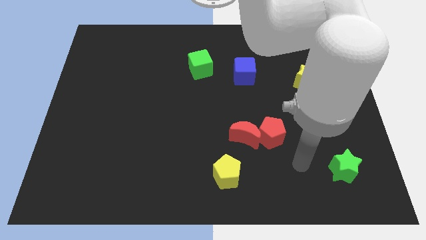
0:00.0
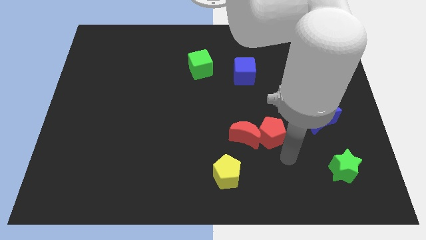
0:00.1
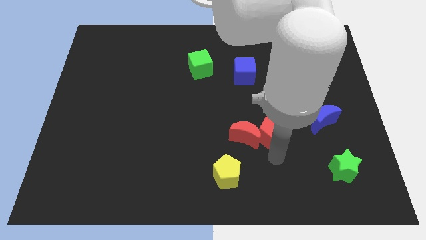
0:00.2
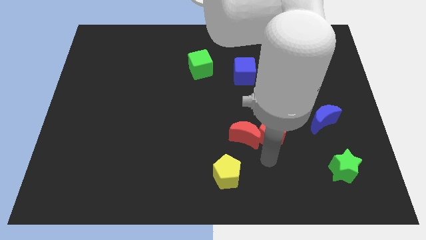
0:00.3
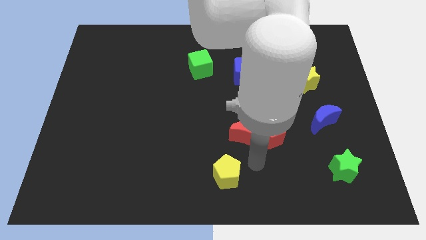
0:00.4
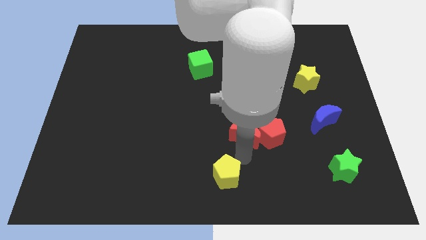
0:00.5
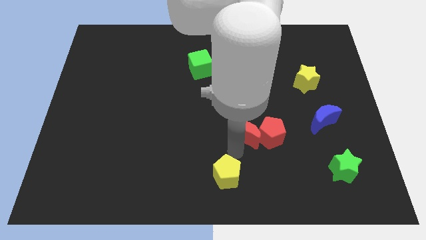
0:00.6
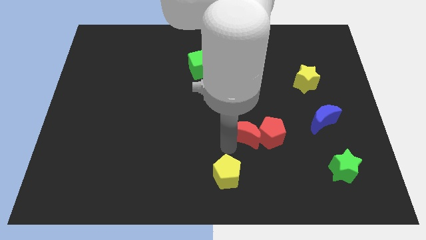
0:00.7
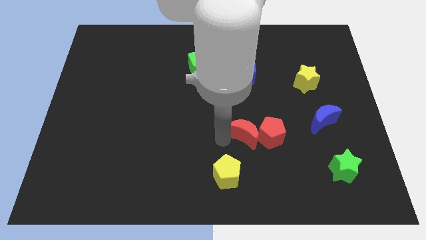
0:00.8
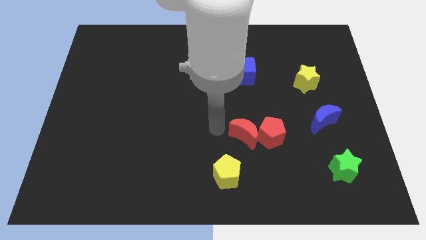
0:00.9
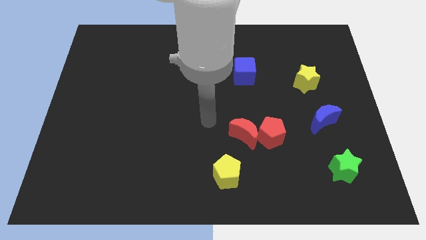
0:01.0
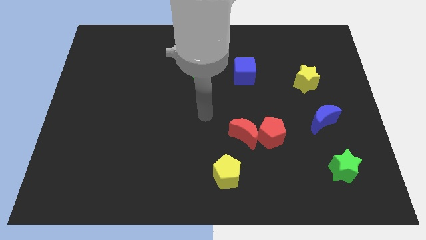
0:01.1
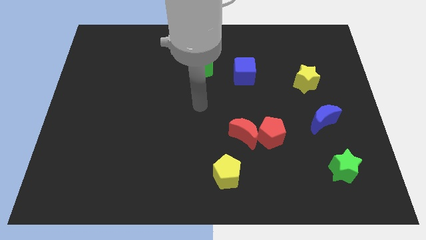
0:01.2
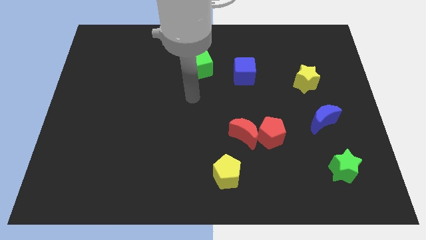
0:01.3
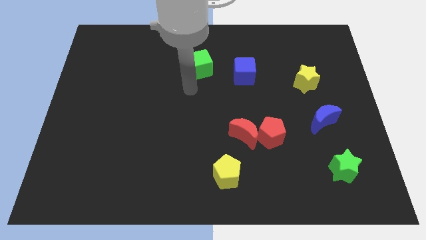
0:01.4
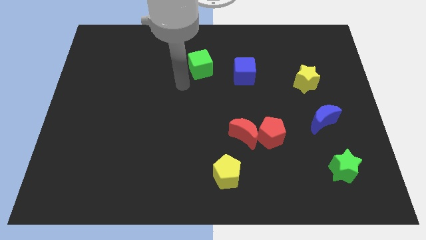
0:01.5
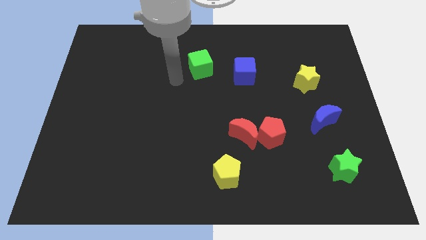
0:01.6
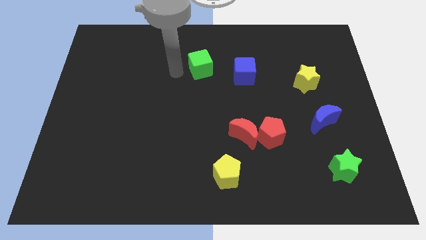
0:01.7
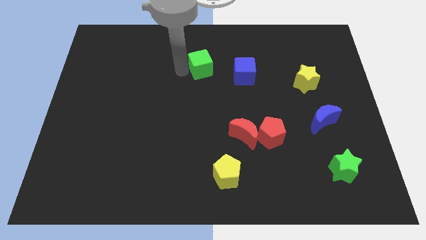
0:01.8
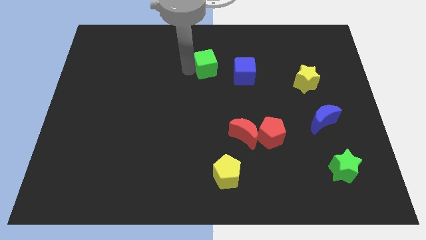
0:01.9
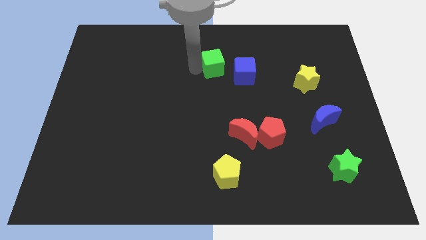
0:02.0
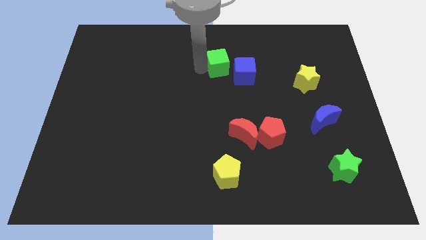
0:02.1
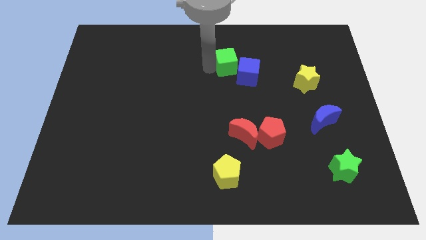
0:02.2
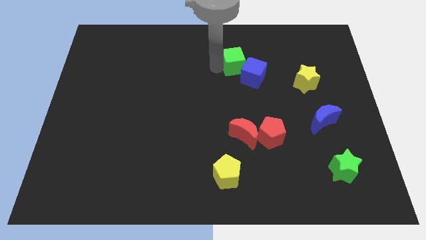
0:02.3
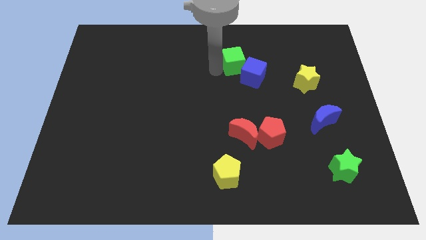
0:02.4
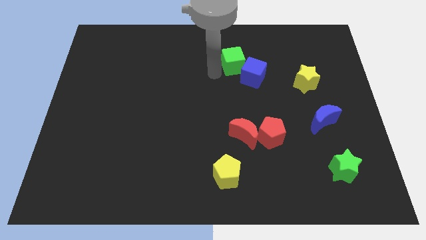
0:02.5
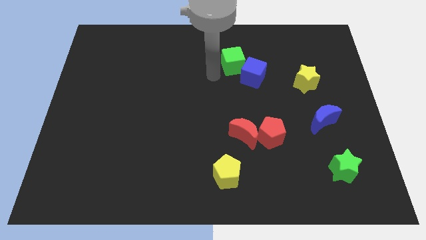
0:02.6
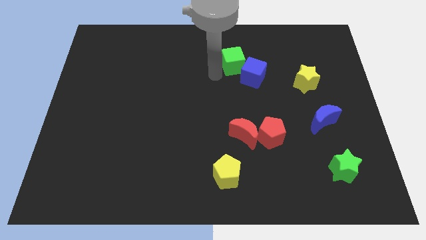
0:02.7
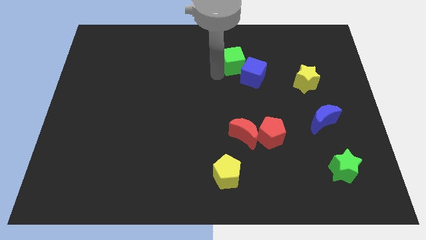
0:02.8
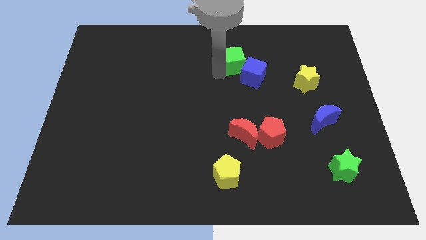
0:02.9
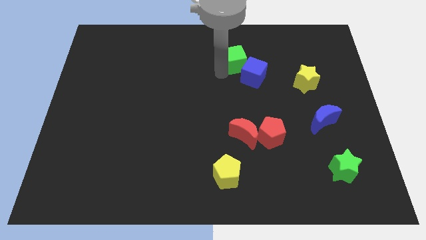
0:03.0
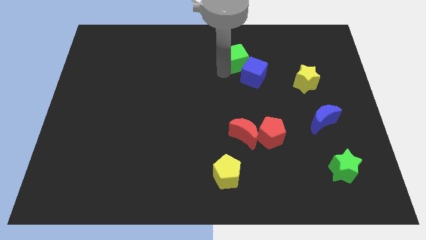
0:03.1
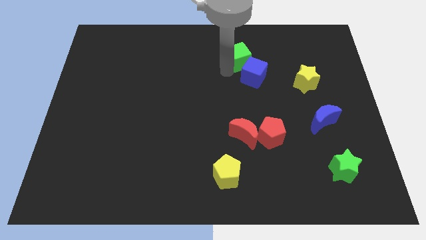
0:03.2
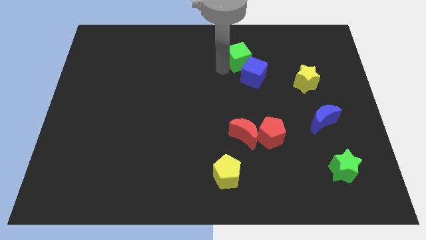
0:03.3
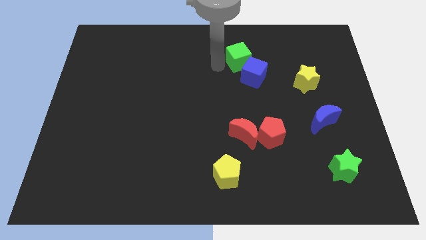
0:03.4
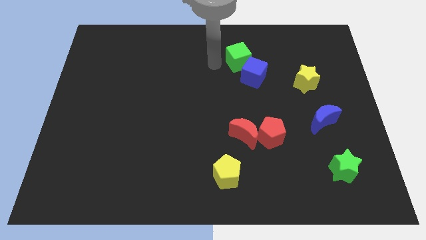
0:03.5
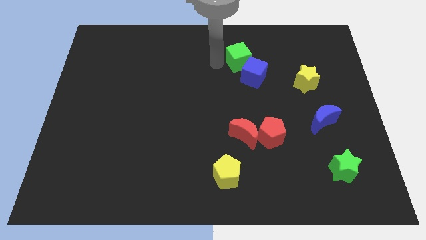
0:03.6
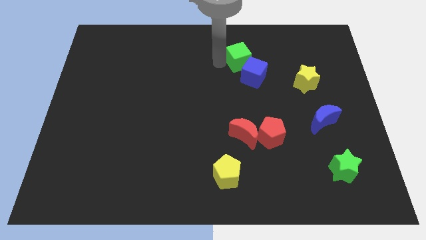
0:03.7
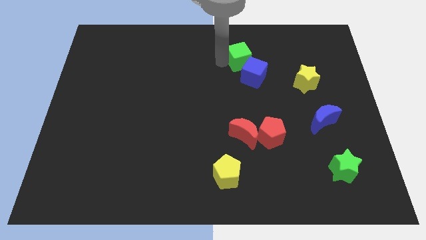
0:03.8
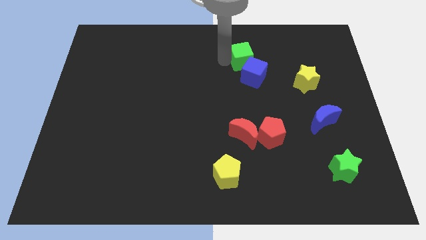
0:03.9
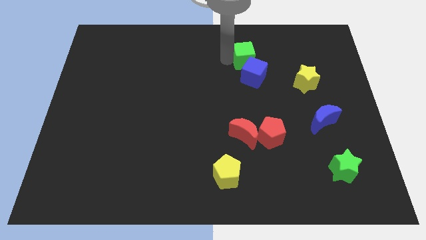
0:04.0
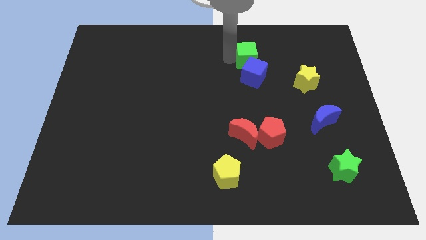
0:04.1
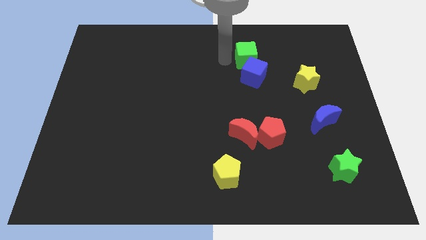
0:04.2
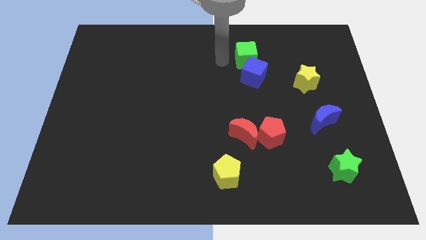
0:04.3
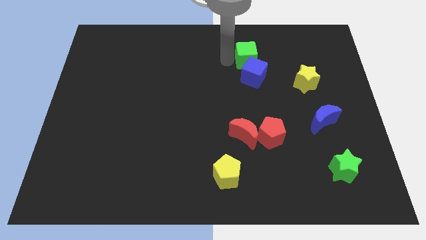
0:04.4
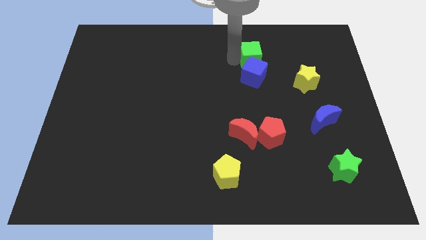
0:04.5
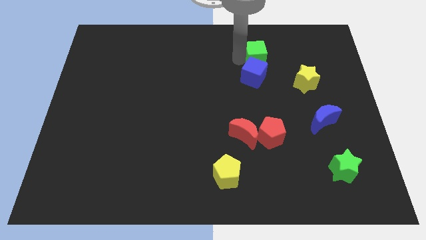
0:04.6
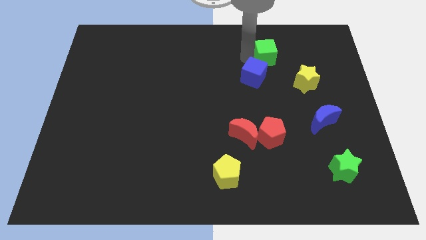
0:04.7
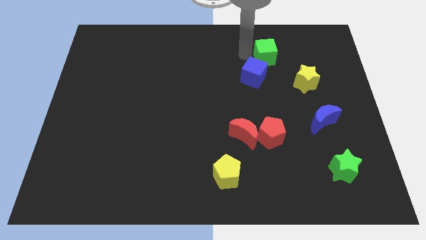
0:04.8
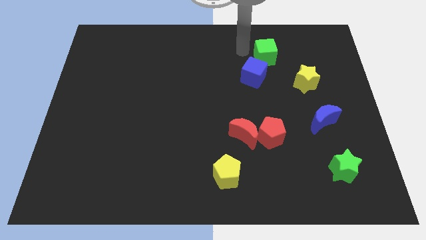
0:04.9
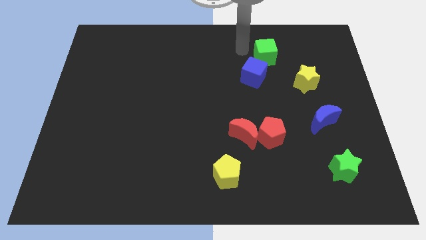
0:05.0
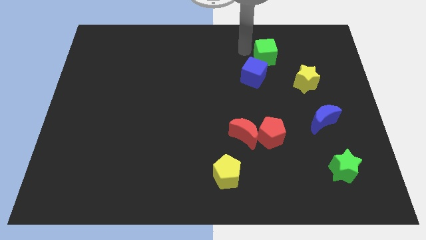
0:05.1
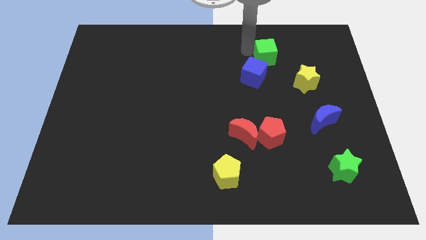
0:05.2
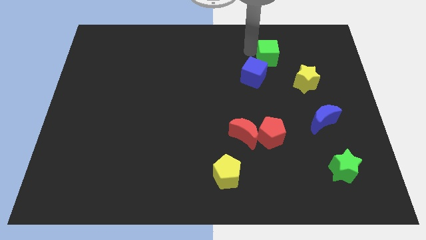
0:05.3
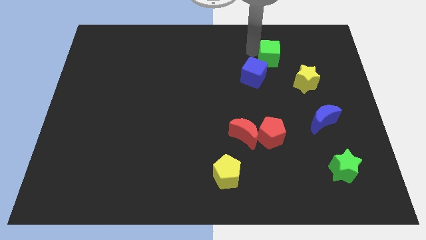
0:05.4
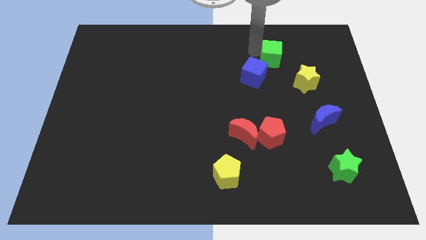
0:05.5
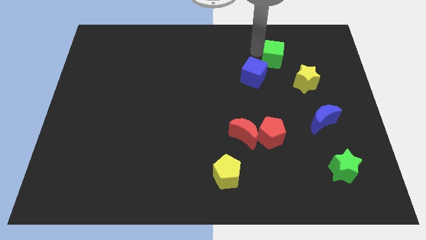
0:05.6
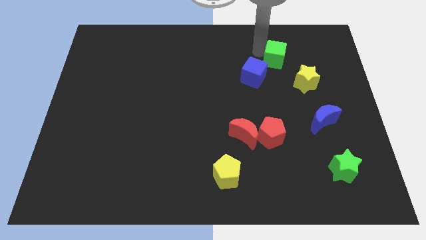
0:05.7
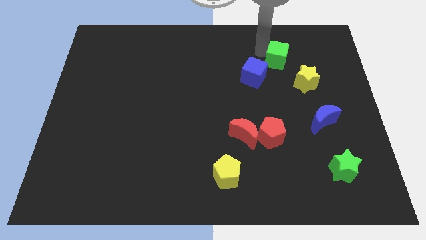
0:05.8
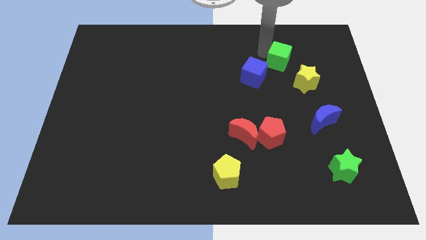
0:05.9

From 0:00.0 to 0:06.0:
move the green cube right

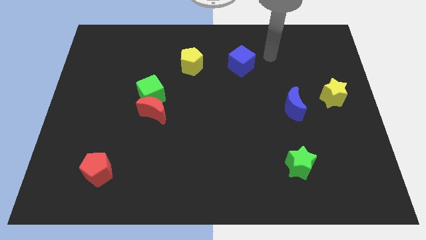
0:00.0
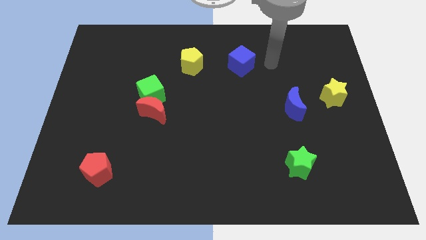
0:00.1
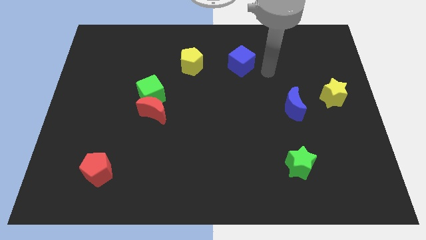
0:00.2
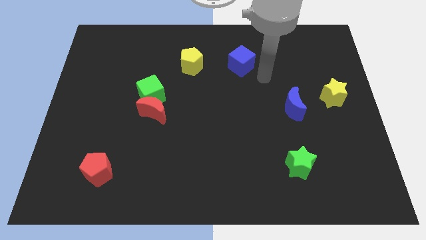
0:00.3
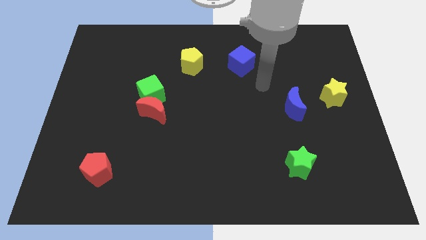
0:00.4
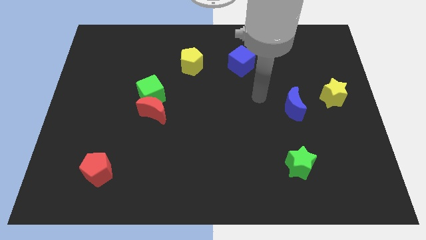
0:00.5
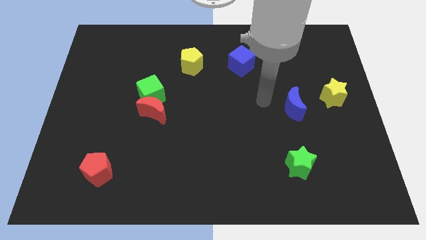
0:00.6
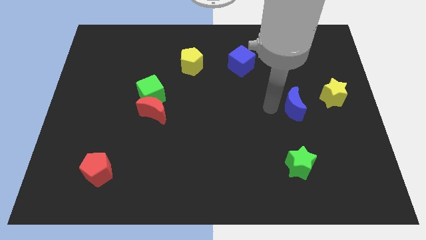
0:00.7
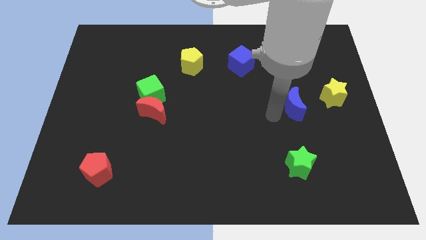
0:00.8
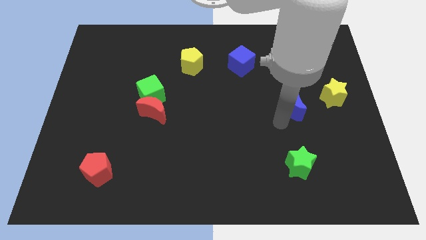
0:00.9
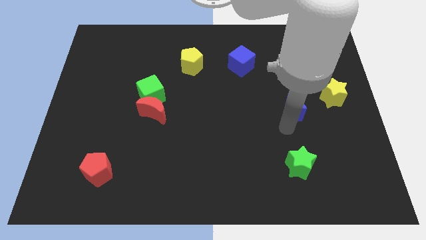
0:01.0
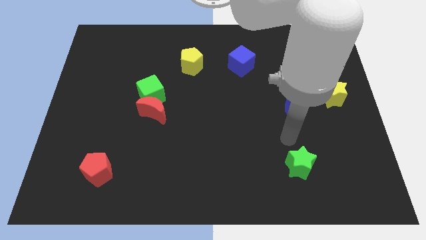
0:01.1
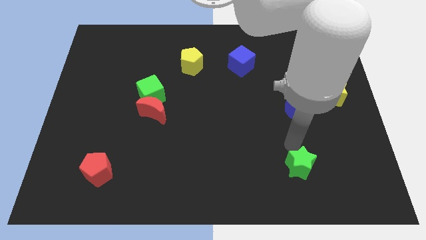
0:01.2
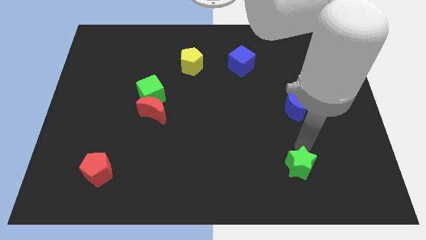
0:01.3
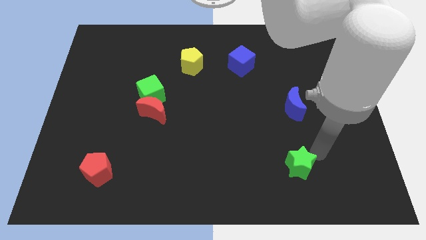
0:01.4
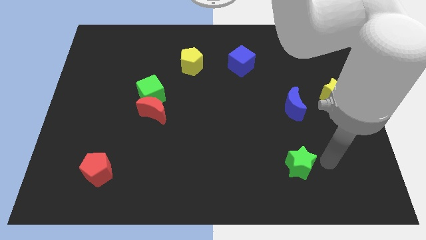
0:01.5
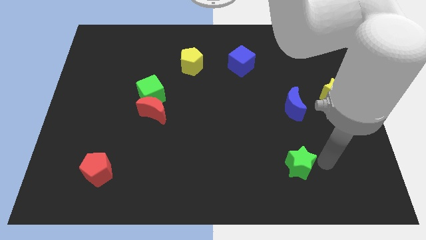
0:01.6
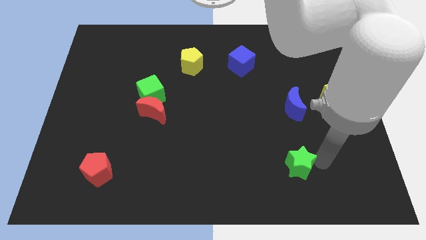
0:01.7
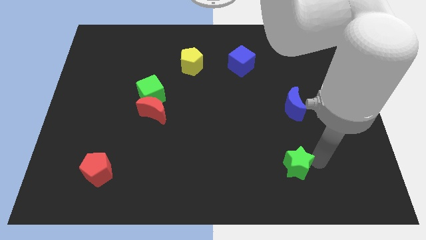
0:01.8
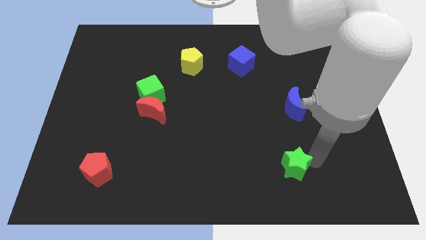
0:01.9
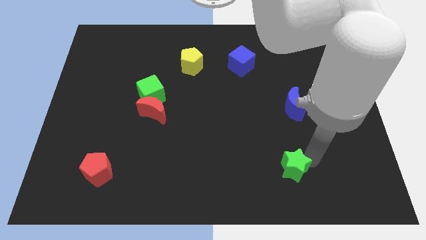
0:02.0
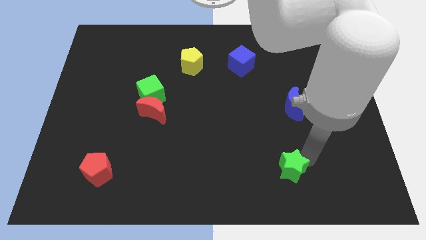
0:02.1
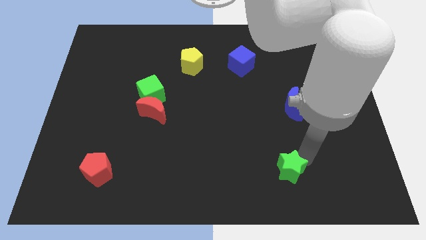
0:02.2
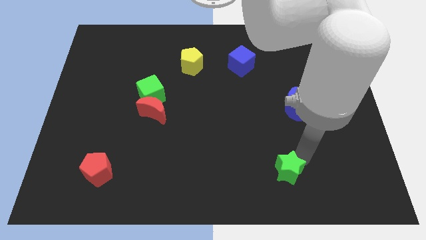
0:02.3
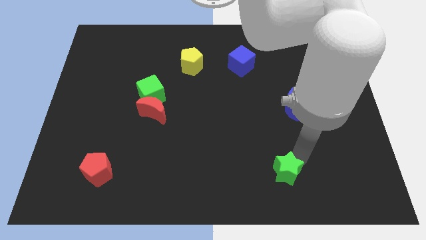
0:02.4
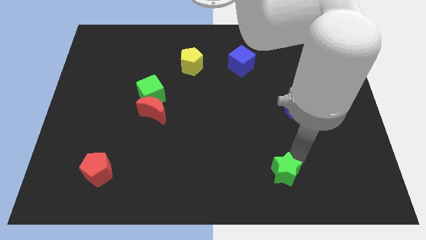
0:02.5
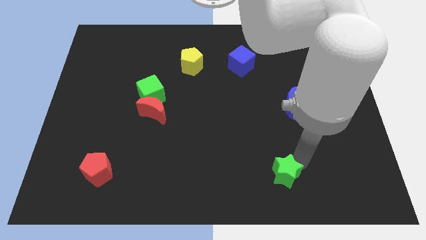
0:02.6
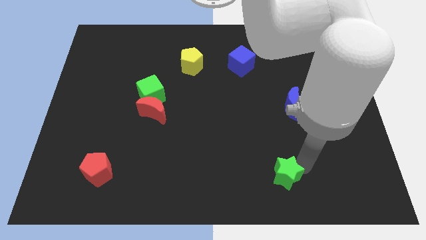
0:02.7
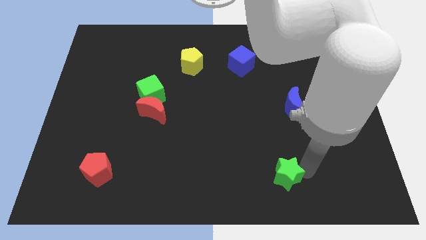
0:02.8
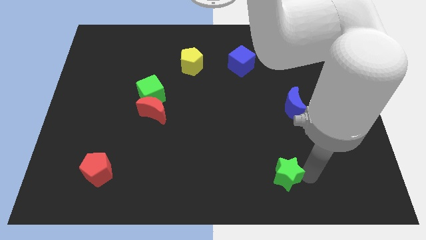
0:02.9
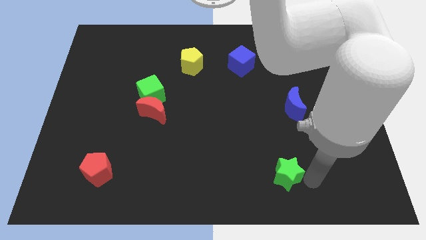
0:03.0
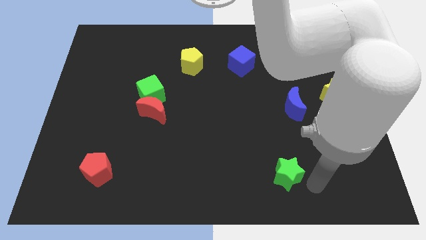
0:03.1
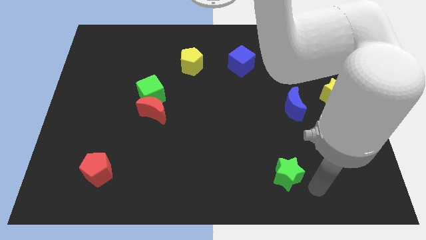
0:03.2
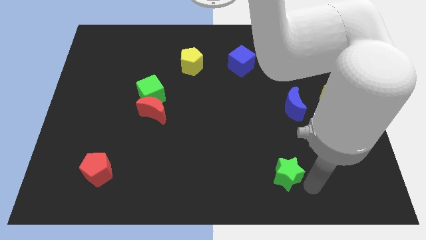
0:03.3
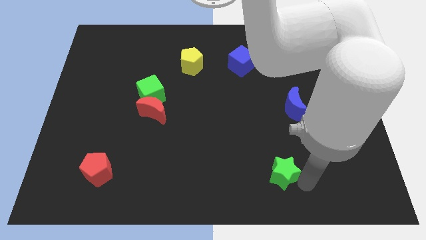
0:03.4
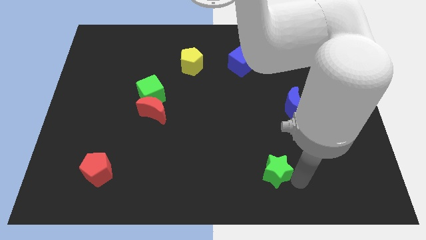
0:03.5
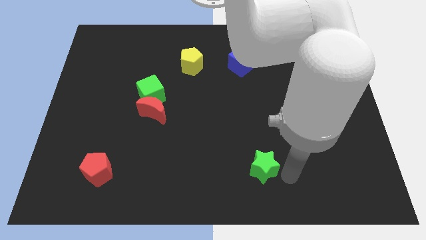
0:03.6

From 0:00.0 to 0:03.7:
push the green star to the left a bit
